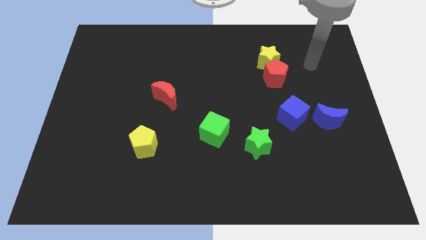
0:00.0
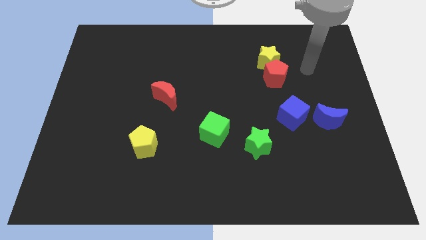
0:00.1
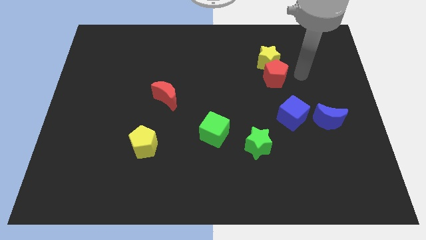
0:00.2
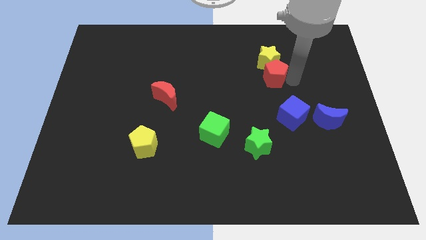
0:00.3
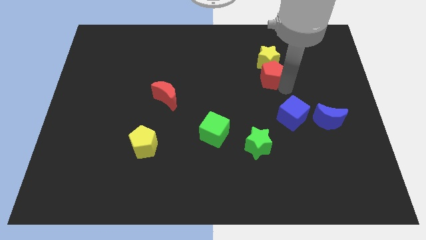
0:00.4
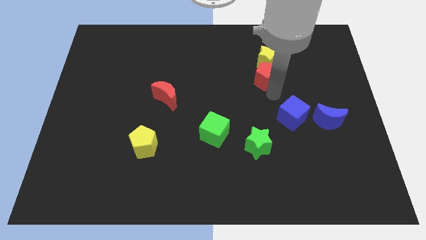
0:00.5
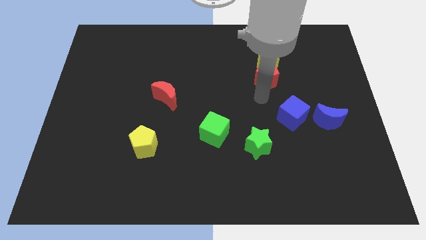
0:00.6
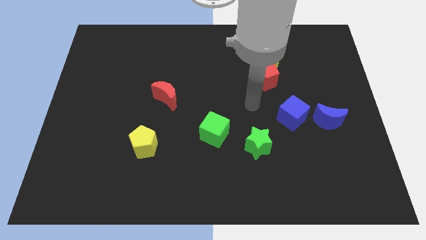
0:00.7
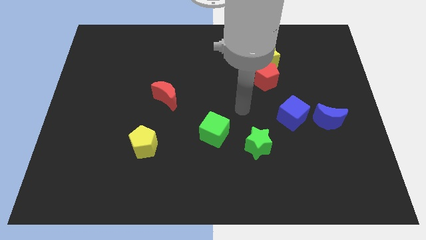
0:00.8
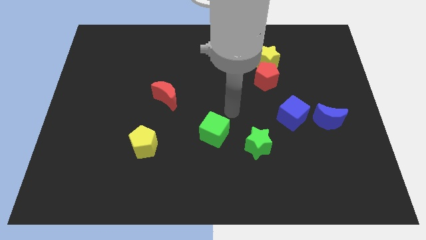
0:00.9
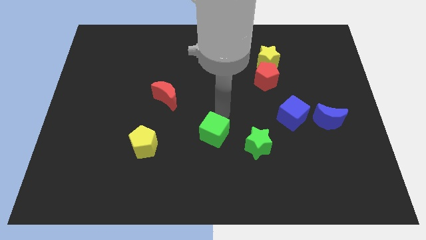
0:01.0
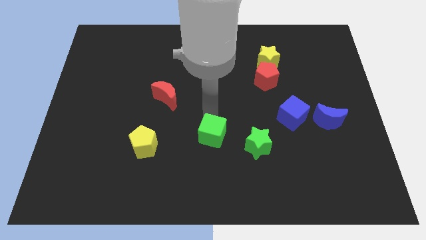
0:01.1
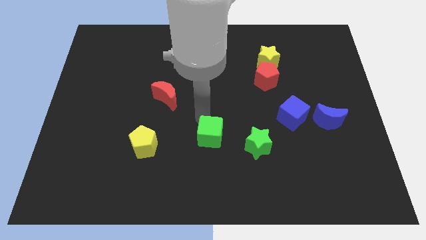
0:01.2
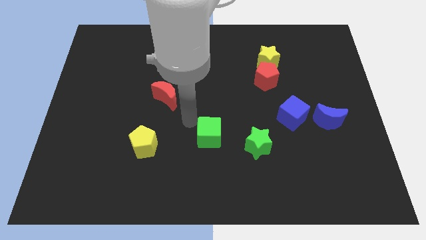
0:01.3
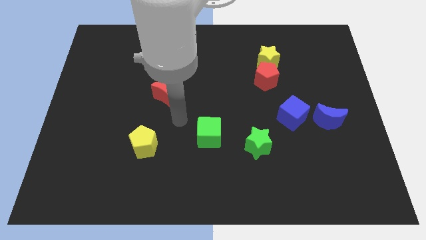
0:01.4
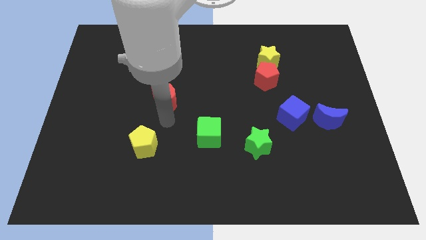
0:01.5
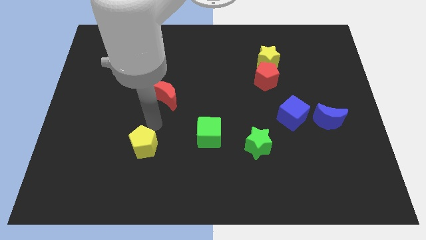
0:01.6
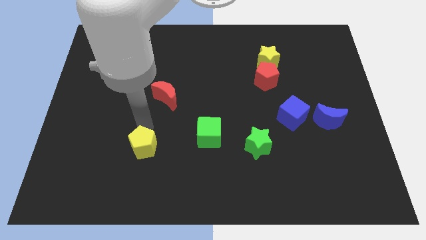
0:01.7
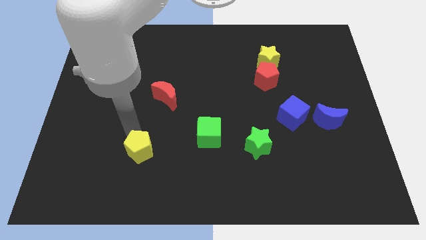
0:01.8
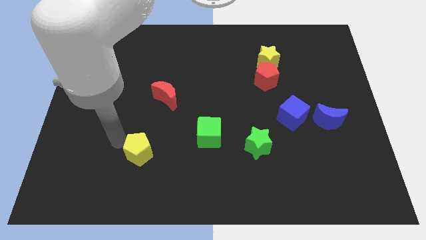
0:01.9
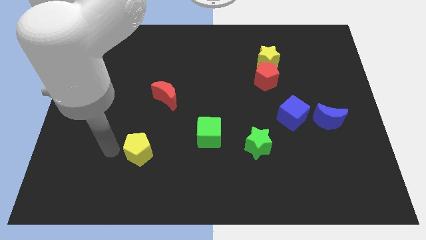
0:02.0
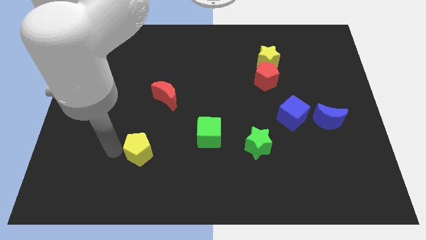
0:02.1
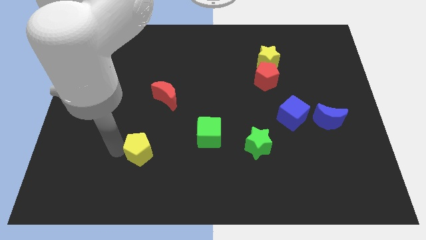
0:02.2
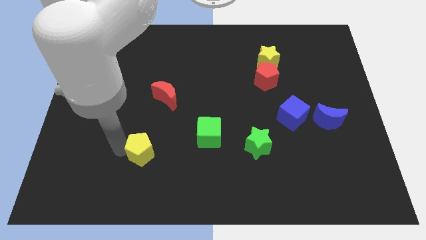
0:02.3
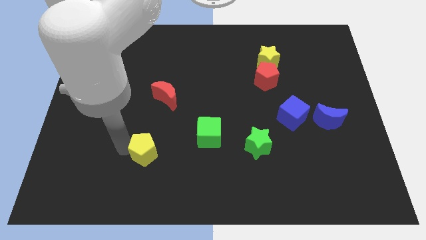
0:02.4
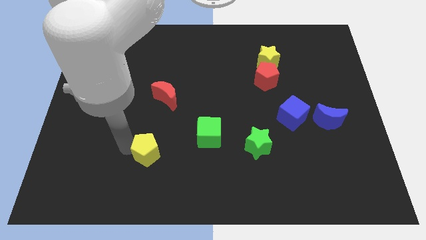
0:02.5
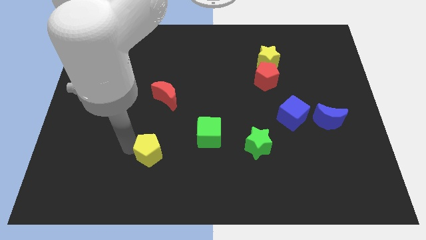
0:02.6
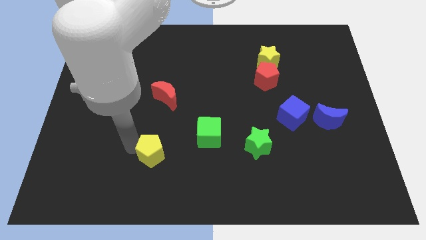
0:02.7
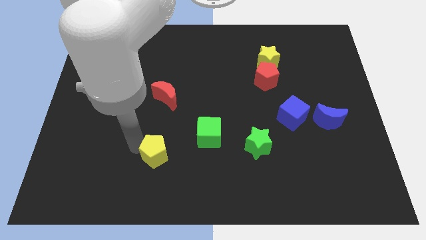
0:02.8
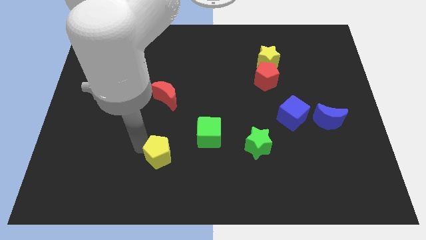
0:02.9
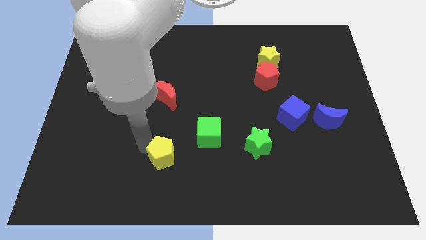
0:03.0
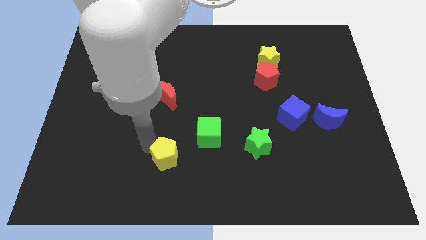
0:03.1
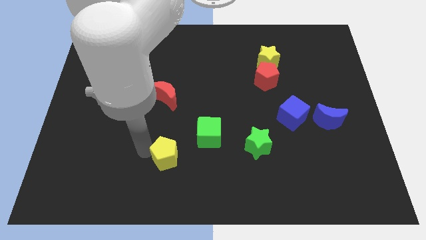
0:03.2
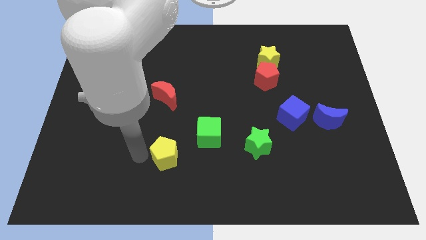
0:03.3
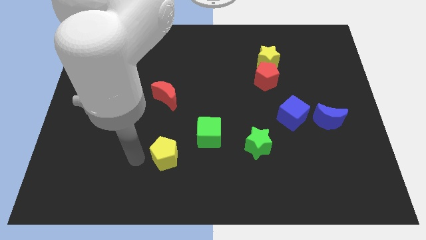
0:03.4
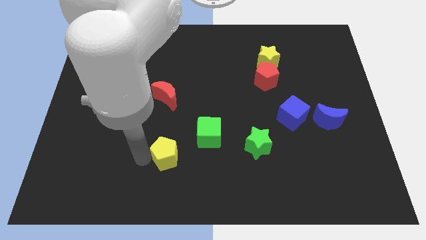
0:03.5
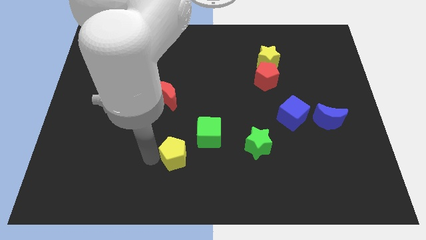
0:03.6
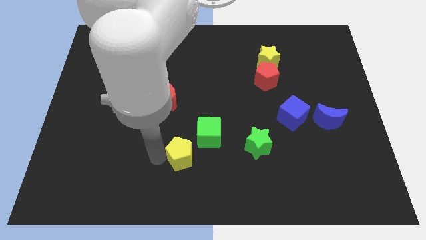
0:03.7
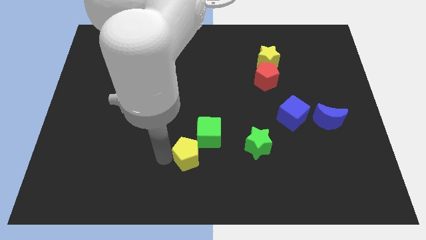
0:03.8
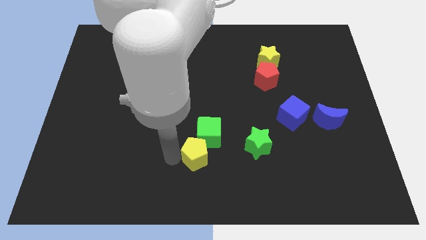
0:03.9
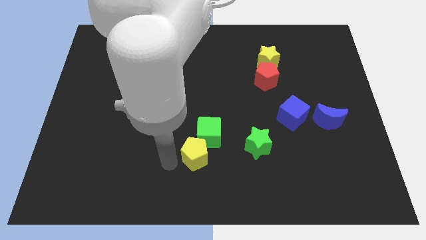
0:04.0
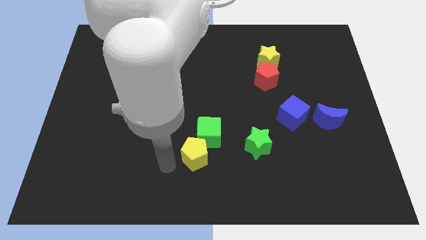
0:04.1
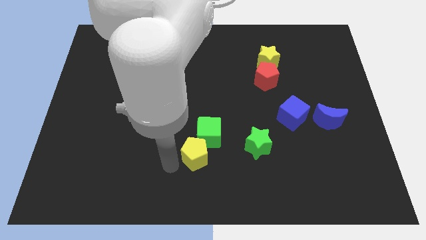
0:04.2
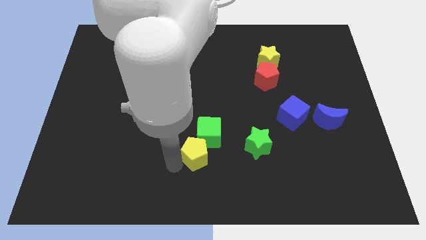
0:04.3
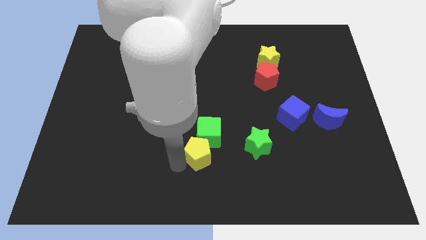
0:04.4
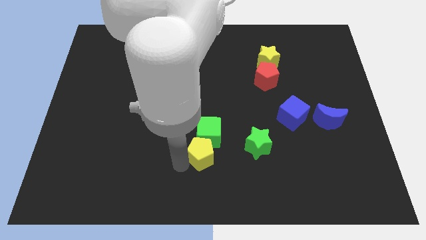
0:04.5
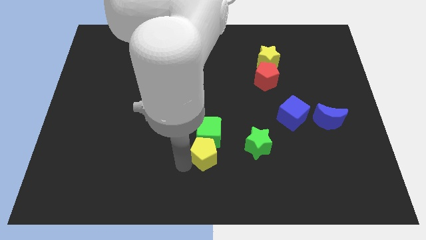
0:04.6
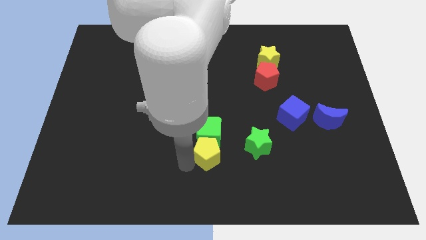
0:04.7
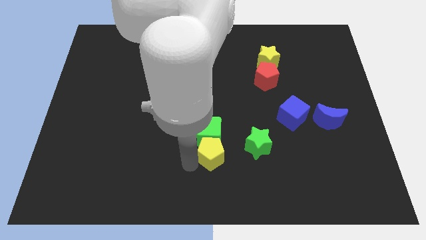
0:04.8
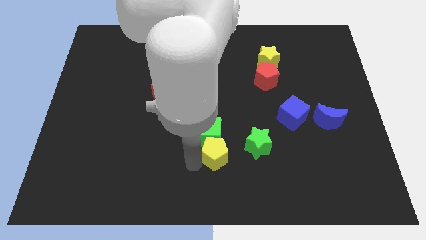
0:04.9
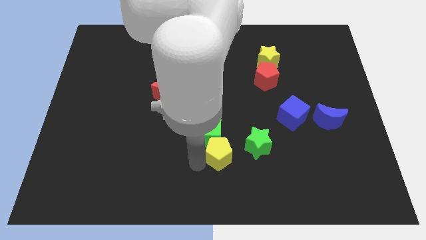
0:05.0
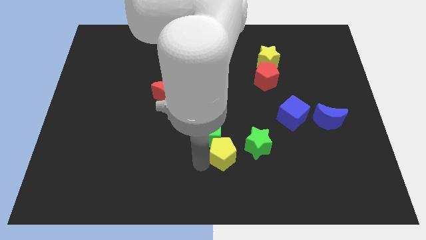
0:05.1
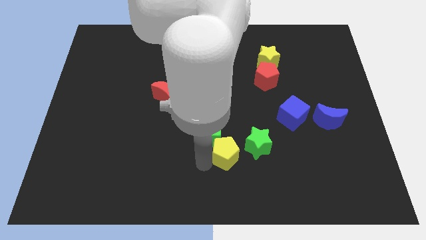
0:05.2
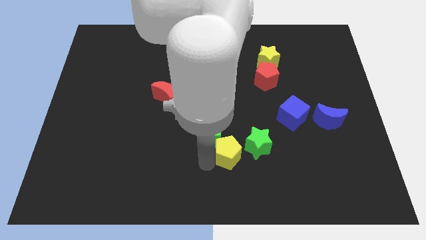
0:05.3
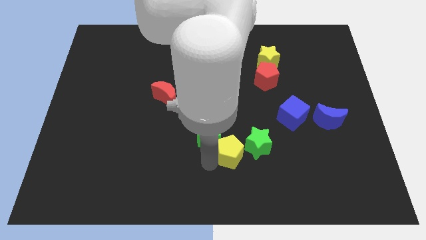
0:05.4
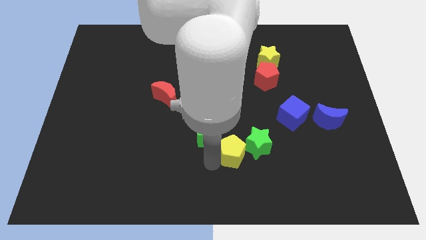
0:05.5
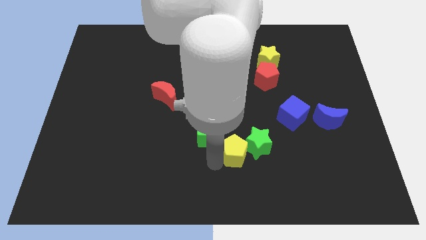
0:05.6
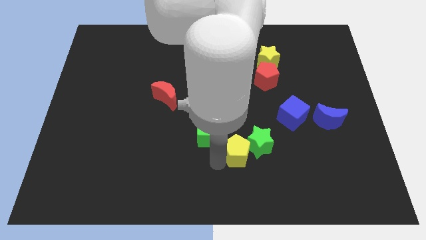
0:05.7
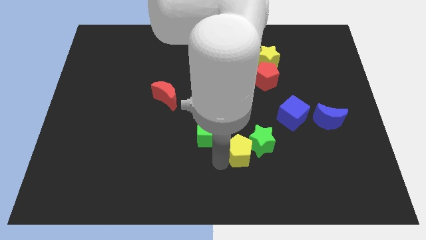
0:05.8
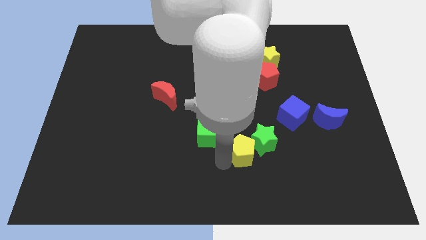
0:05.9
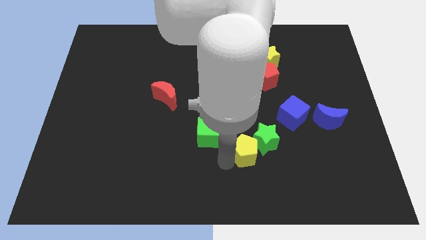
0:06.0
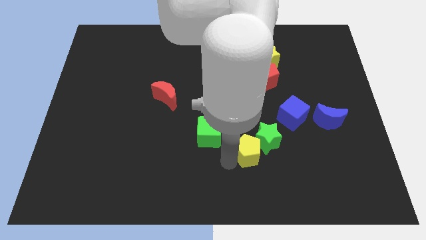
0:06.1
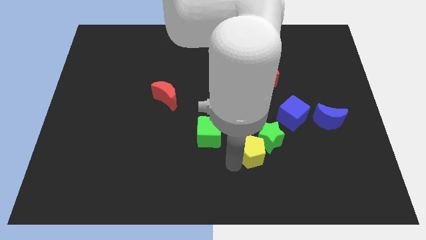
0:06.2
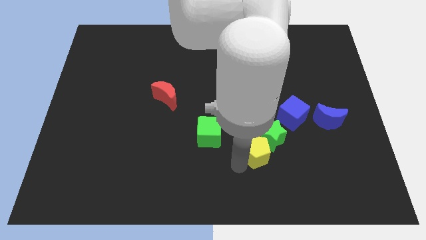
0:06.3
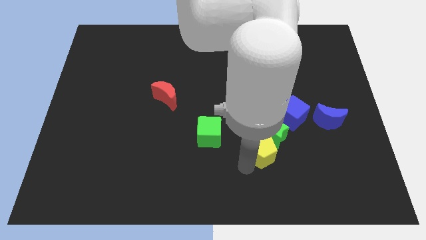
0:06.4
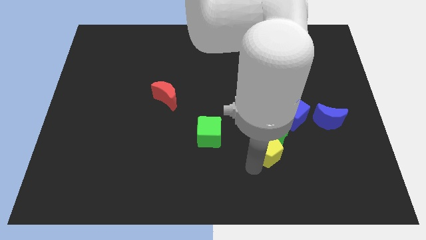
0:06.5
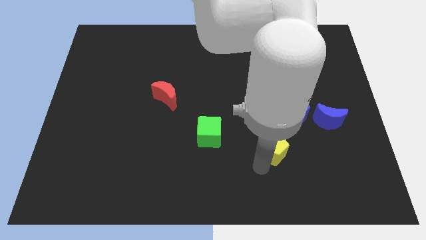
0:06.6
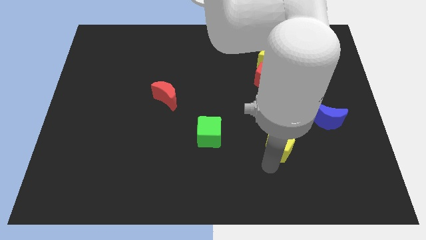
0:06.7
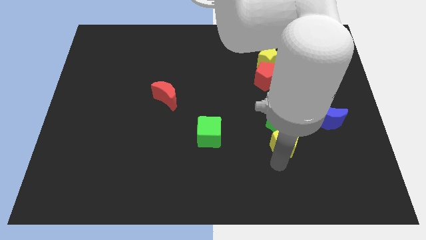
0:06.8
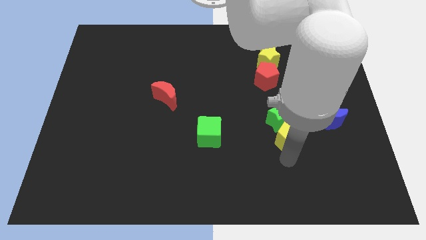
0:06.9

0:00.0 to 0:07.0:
move the yellow pentagon left of the blue moon

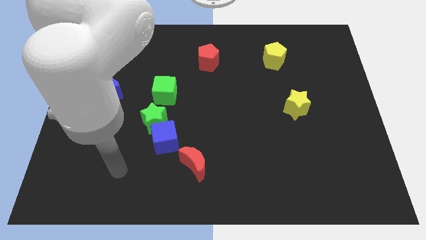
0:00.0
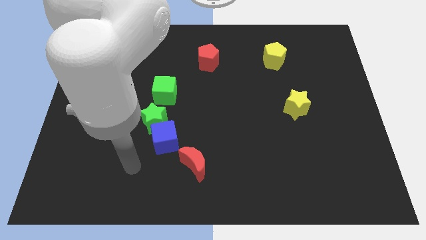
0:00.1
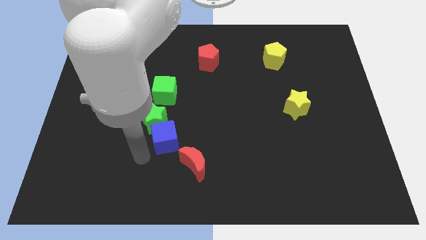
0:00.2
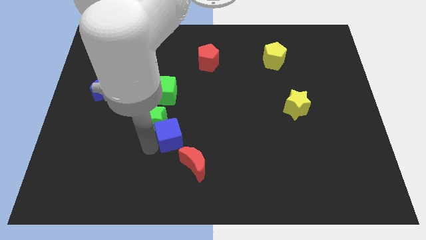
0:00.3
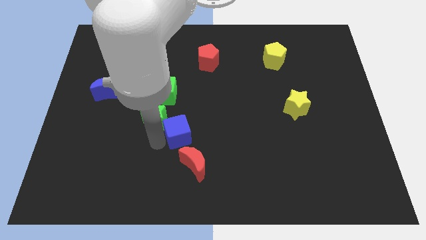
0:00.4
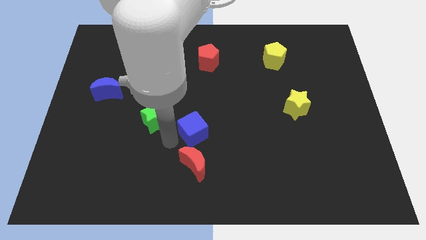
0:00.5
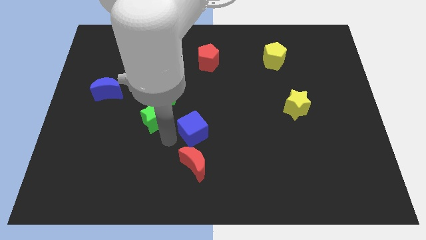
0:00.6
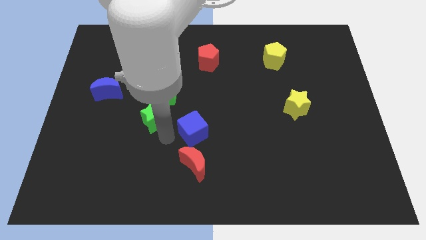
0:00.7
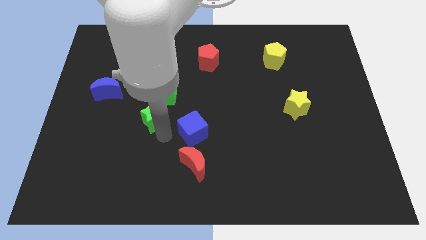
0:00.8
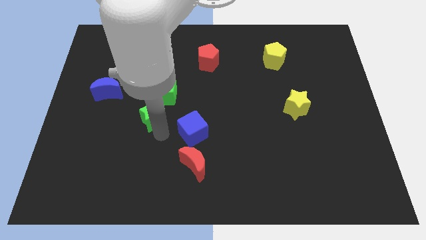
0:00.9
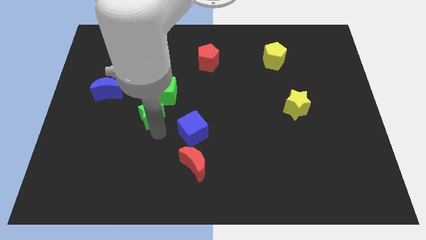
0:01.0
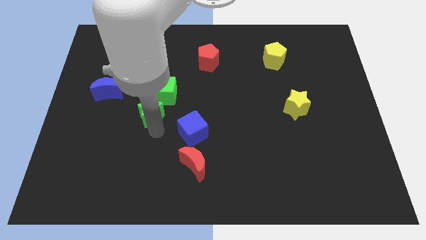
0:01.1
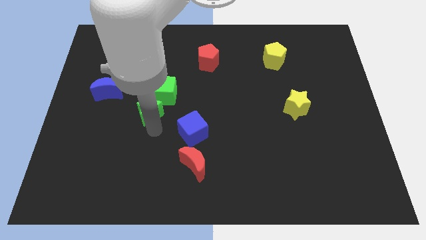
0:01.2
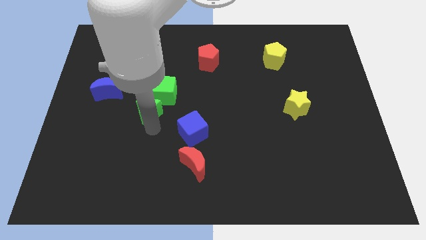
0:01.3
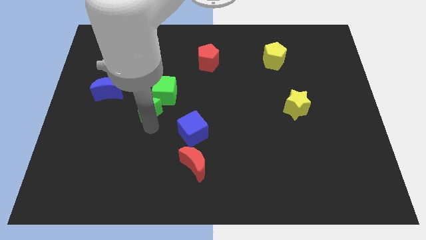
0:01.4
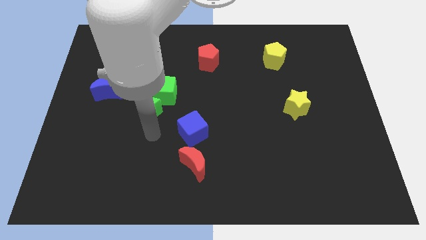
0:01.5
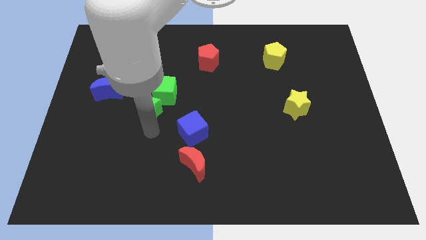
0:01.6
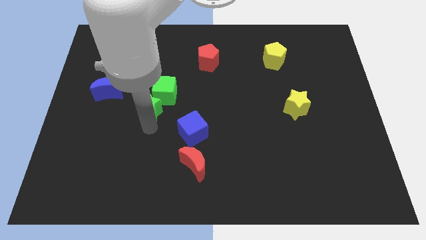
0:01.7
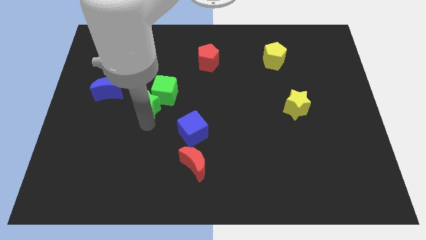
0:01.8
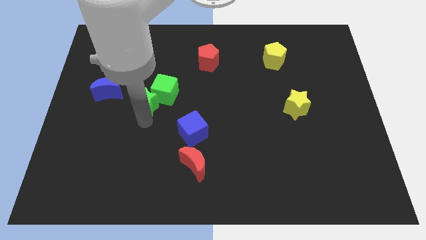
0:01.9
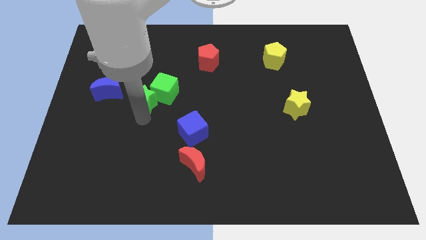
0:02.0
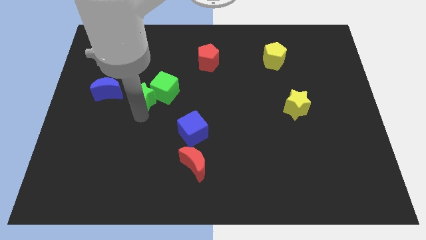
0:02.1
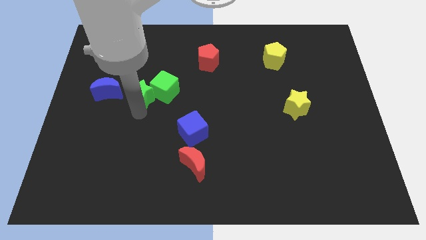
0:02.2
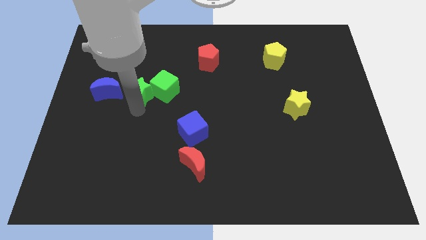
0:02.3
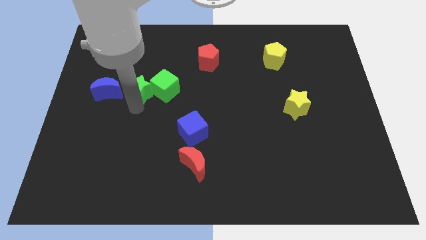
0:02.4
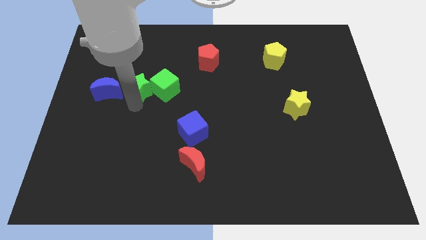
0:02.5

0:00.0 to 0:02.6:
slide the green star to the top left side of the green cube
